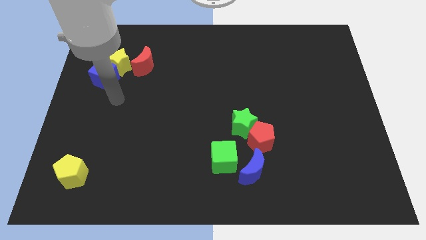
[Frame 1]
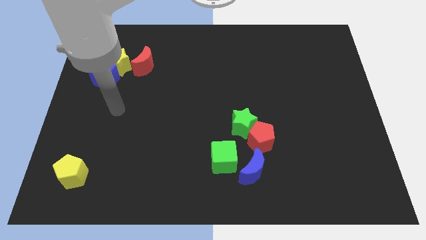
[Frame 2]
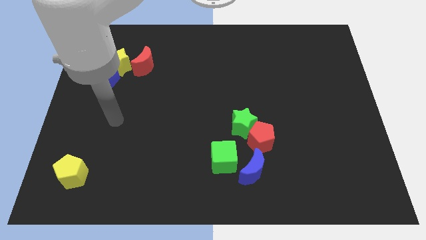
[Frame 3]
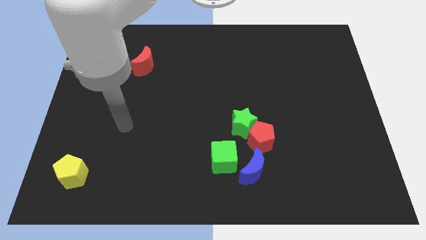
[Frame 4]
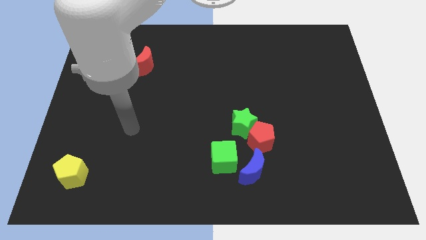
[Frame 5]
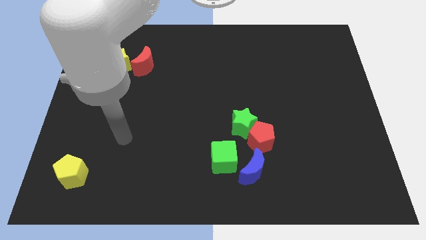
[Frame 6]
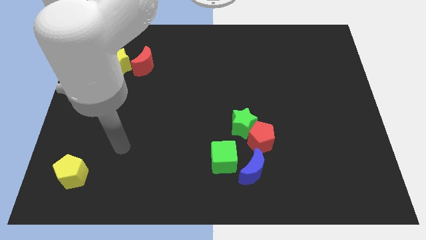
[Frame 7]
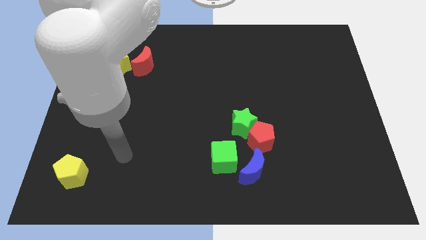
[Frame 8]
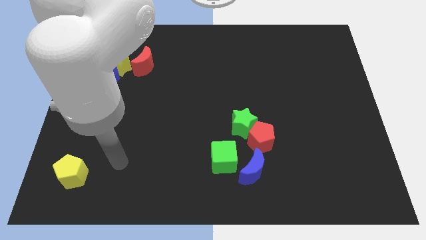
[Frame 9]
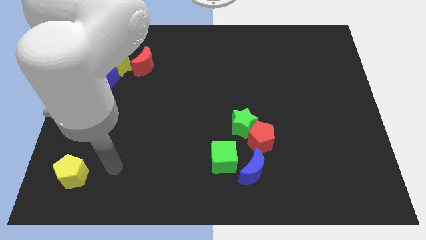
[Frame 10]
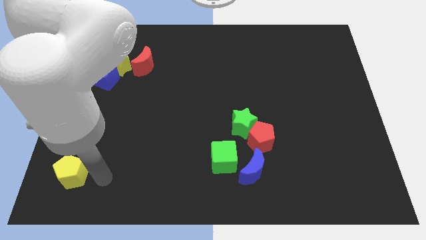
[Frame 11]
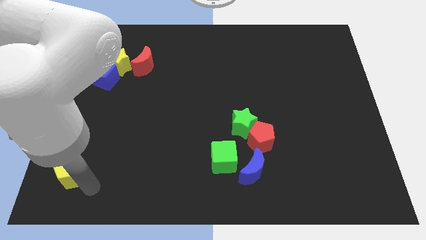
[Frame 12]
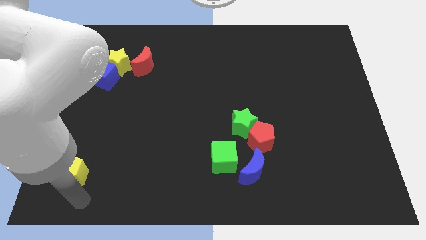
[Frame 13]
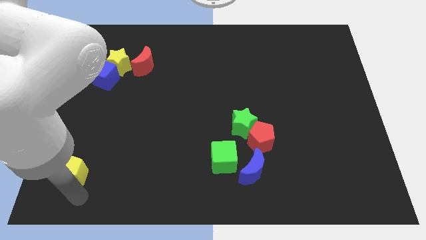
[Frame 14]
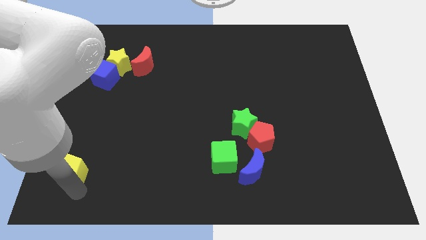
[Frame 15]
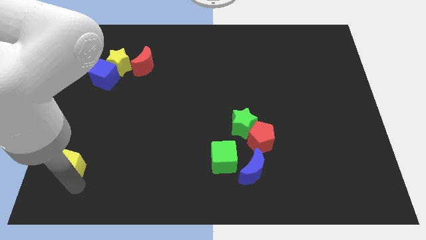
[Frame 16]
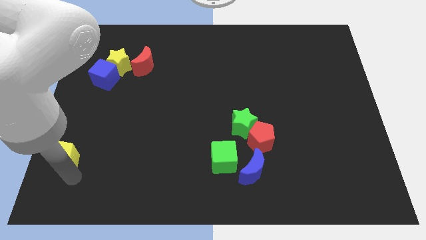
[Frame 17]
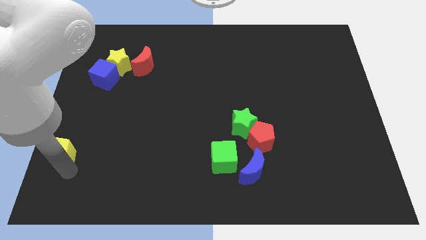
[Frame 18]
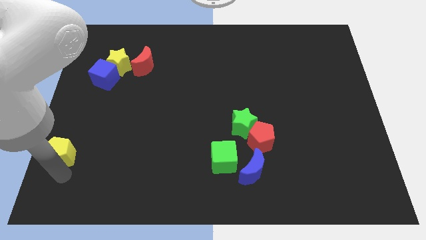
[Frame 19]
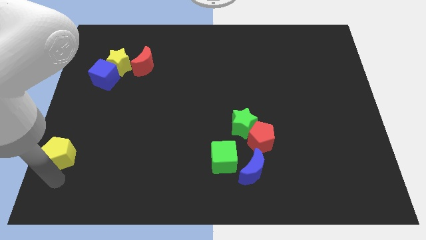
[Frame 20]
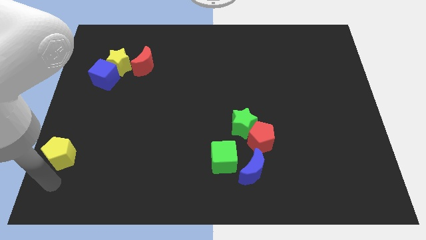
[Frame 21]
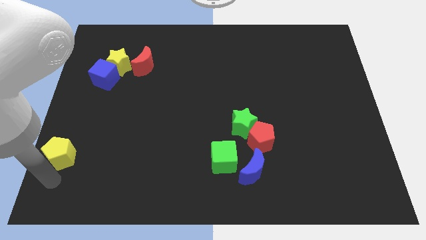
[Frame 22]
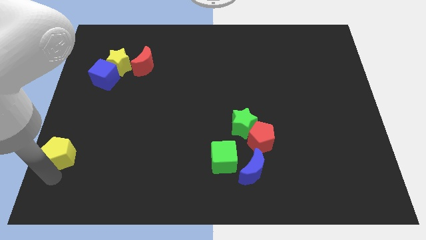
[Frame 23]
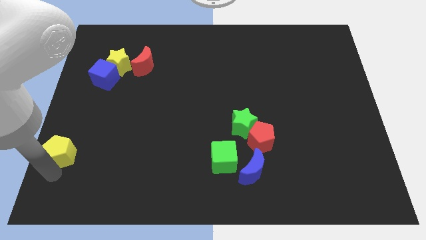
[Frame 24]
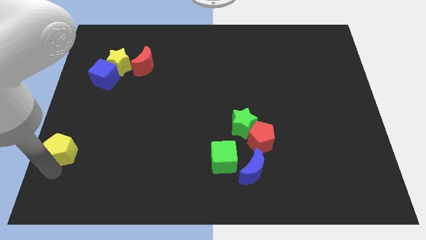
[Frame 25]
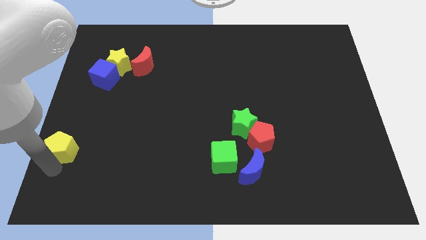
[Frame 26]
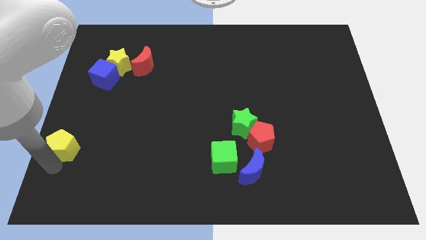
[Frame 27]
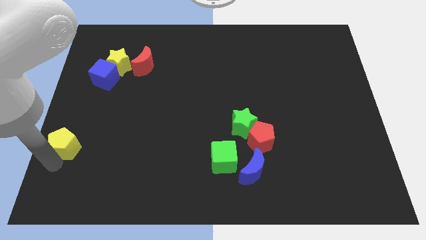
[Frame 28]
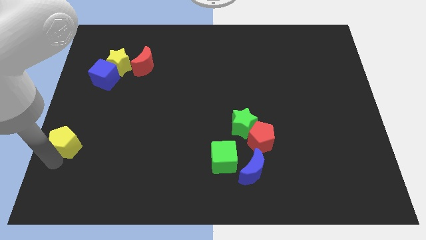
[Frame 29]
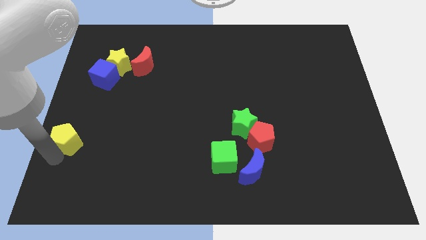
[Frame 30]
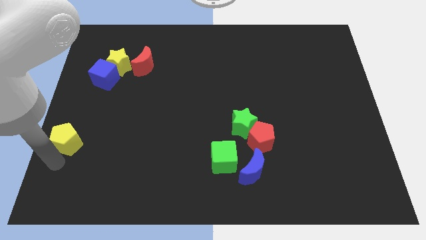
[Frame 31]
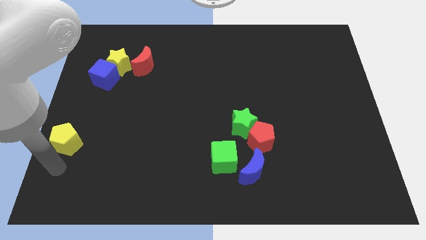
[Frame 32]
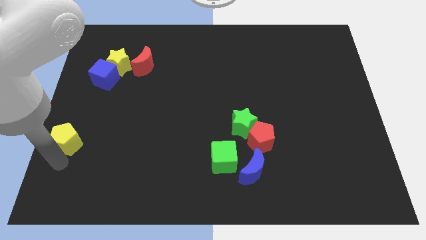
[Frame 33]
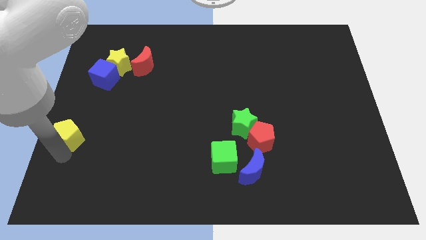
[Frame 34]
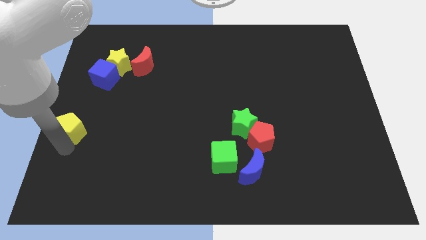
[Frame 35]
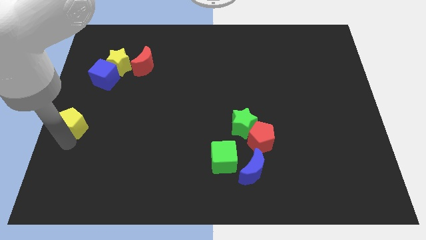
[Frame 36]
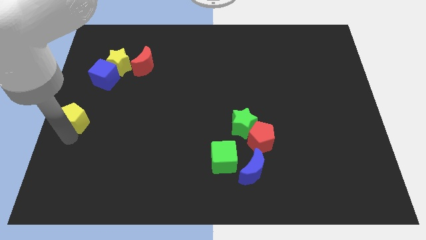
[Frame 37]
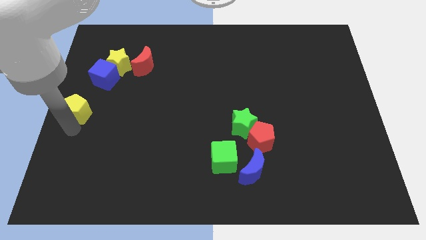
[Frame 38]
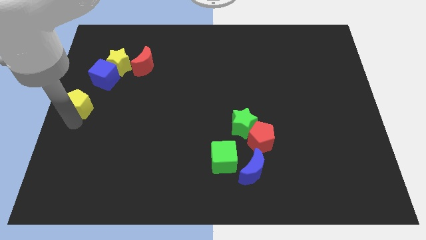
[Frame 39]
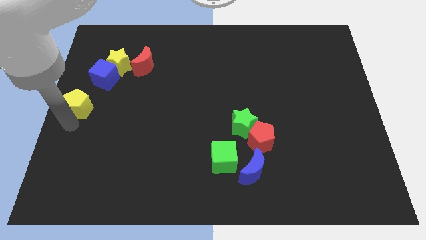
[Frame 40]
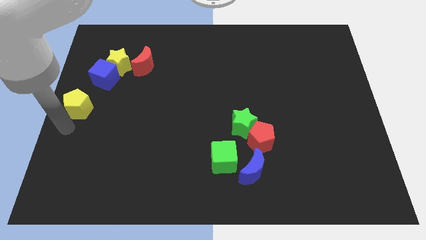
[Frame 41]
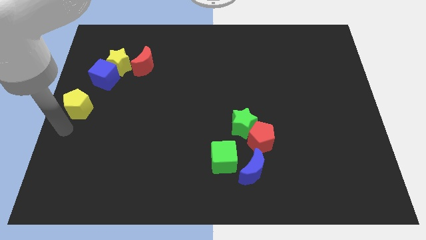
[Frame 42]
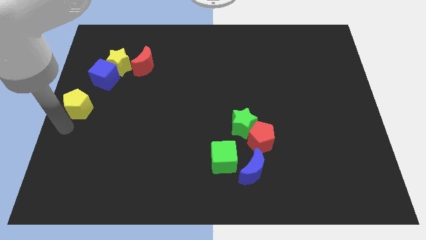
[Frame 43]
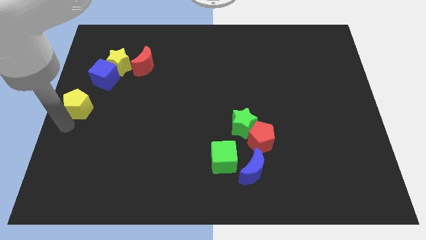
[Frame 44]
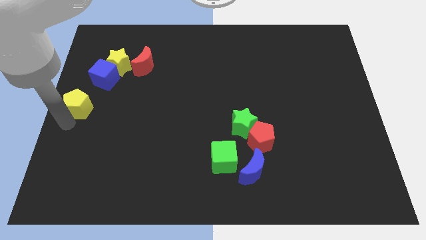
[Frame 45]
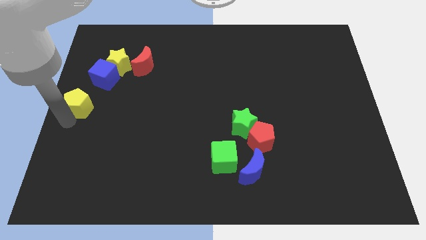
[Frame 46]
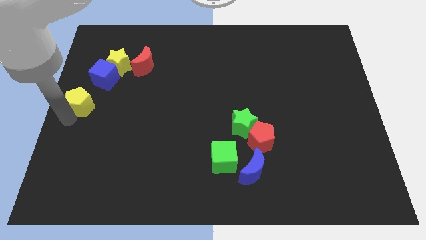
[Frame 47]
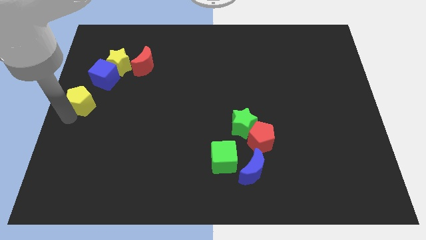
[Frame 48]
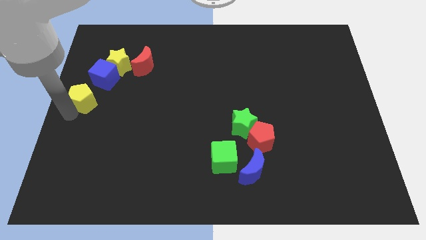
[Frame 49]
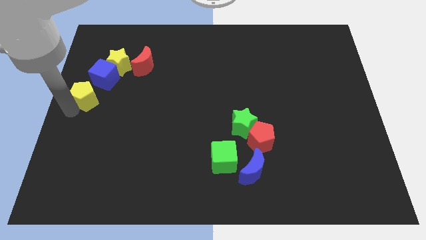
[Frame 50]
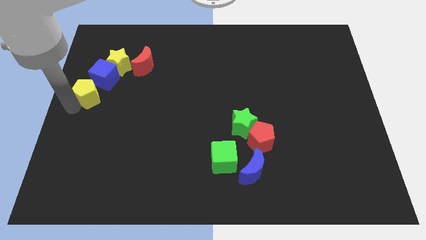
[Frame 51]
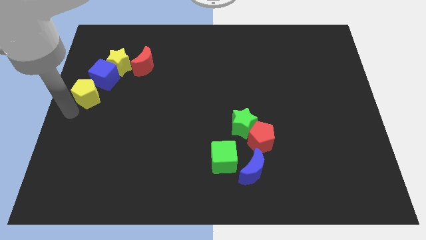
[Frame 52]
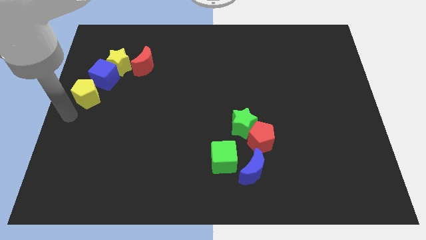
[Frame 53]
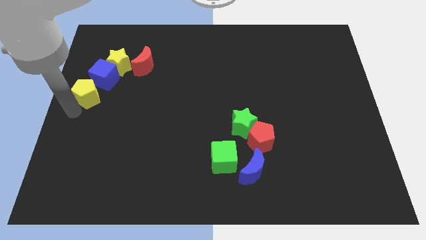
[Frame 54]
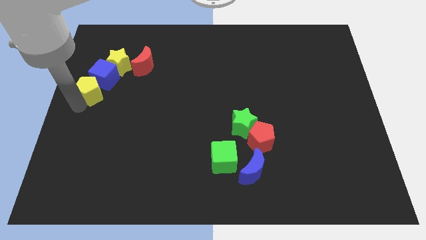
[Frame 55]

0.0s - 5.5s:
move the yellow pentagon close to the blue cube

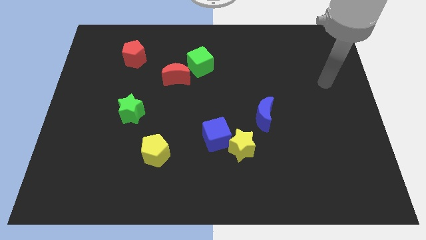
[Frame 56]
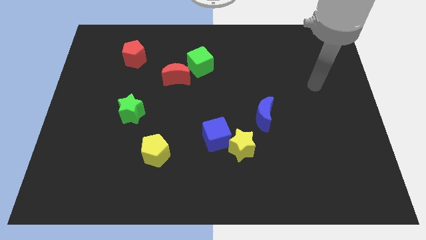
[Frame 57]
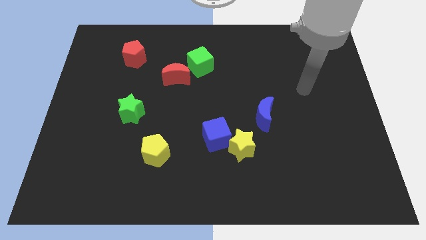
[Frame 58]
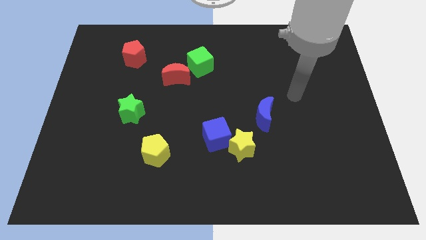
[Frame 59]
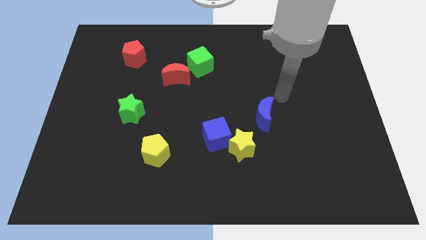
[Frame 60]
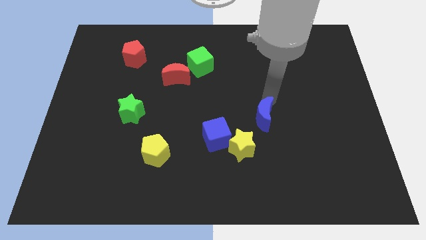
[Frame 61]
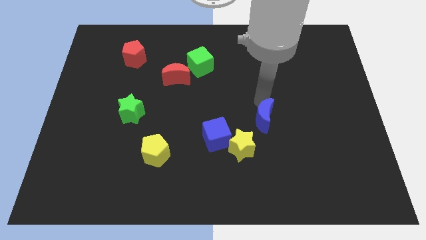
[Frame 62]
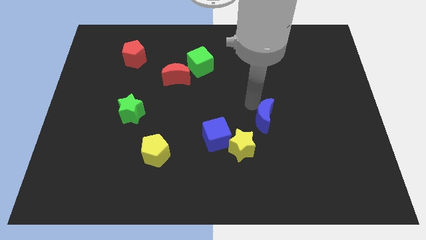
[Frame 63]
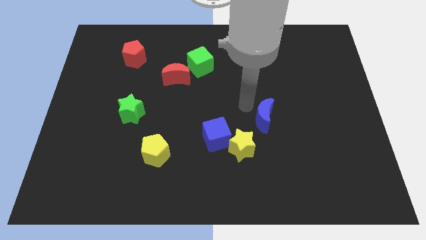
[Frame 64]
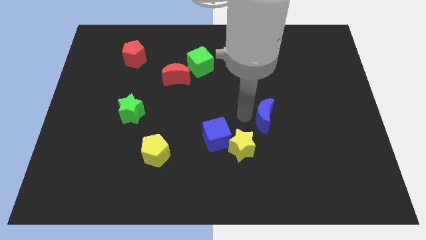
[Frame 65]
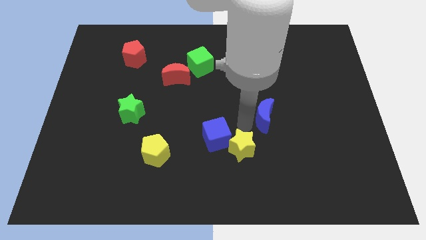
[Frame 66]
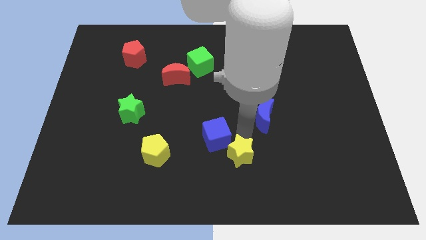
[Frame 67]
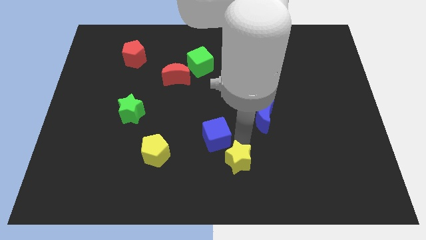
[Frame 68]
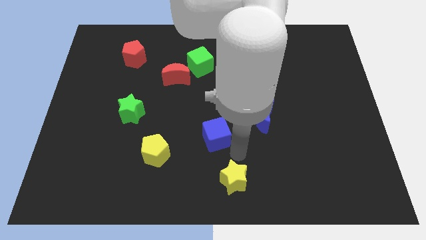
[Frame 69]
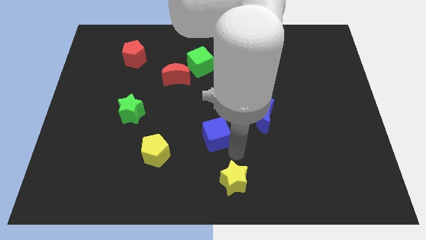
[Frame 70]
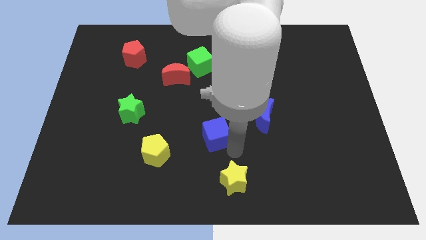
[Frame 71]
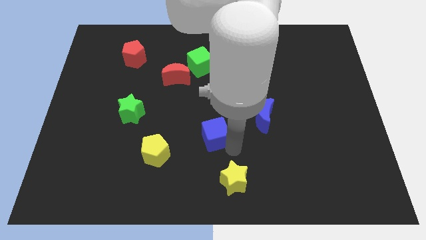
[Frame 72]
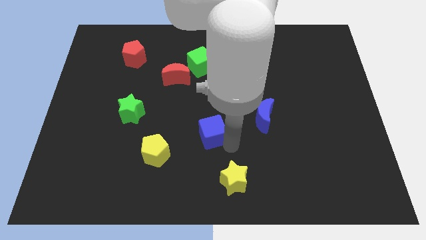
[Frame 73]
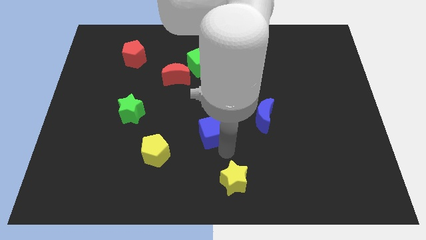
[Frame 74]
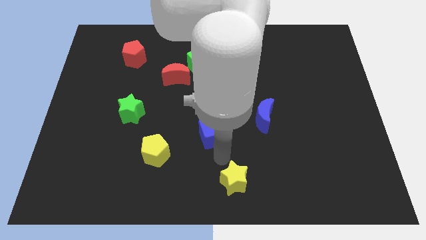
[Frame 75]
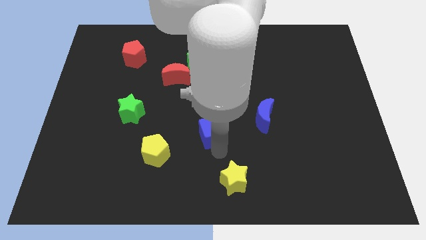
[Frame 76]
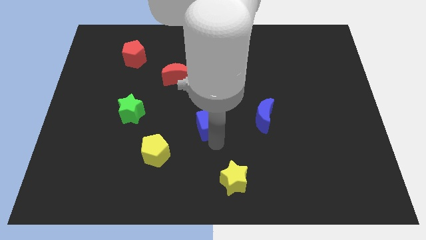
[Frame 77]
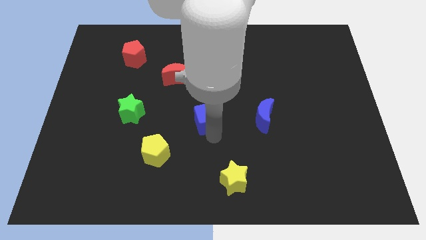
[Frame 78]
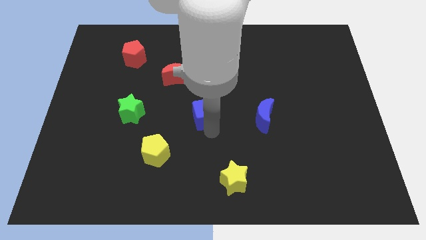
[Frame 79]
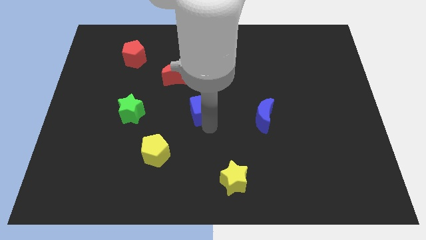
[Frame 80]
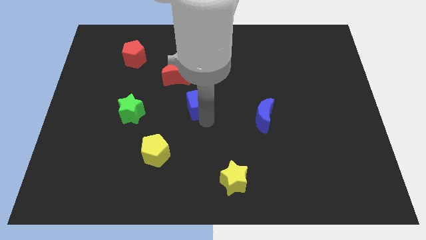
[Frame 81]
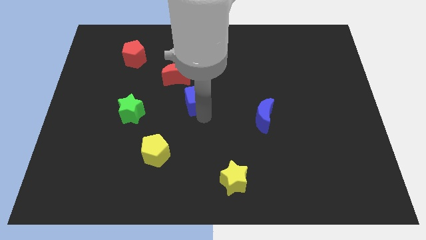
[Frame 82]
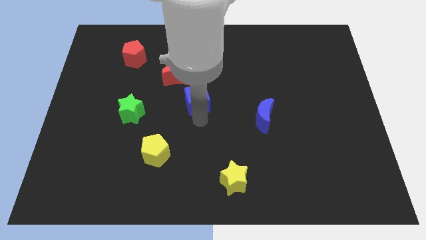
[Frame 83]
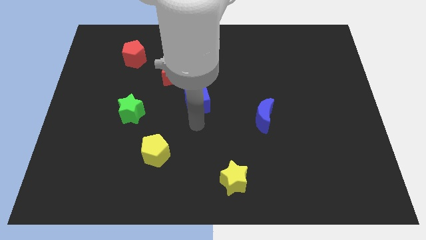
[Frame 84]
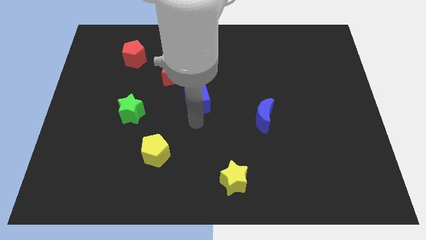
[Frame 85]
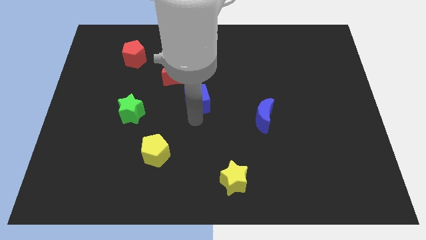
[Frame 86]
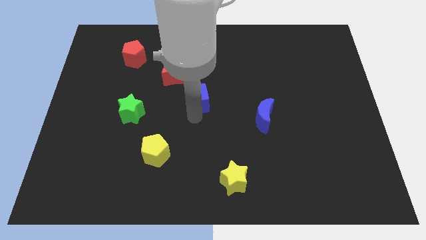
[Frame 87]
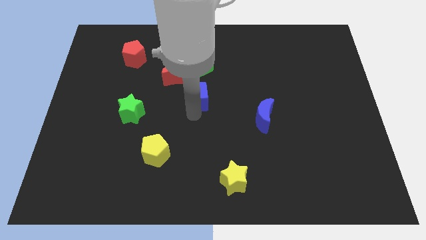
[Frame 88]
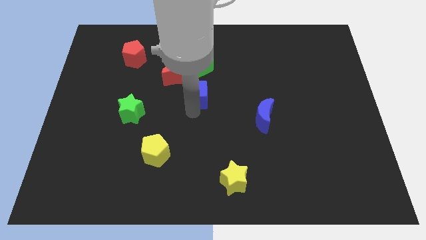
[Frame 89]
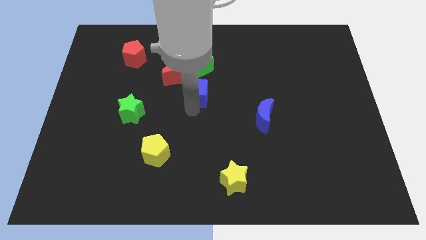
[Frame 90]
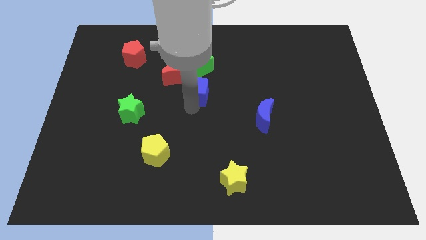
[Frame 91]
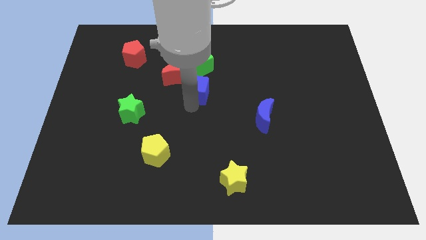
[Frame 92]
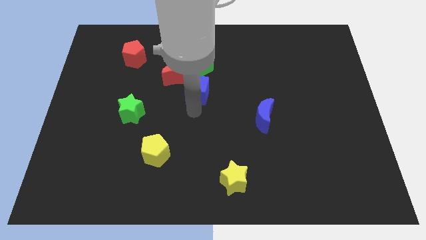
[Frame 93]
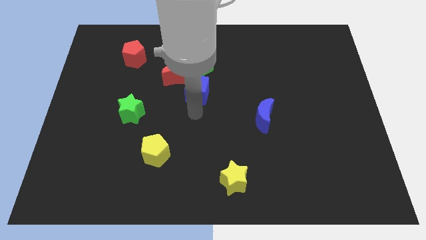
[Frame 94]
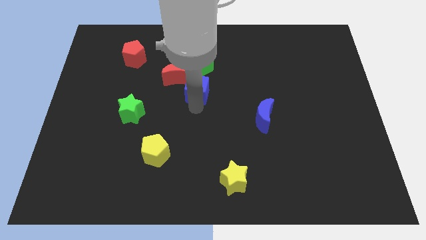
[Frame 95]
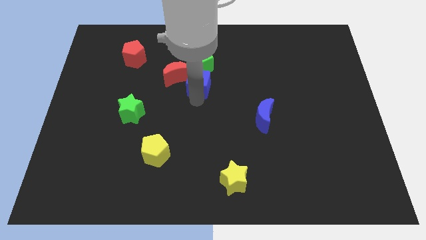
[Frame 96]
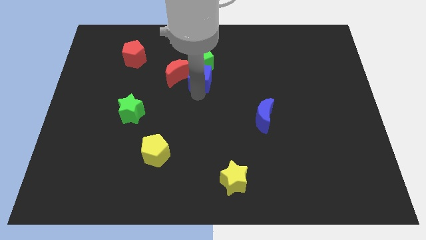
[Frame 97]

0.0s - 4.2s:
move the blue cube close to the green cube
